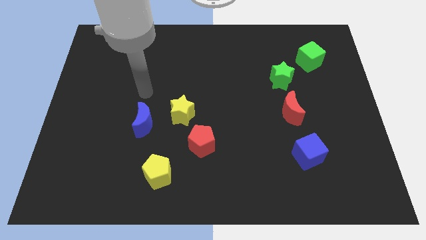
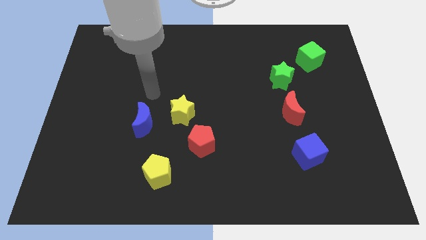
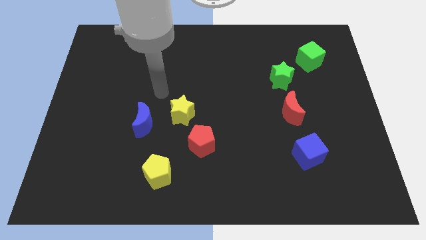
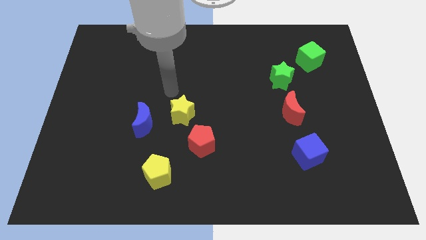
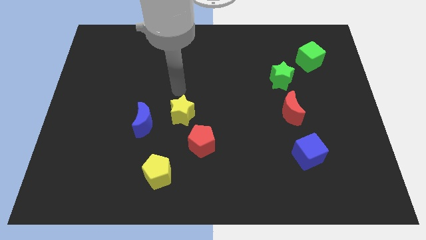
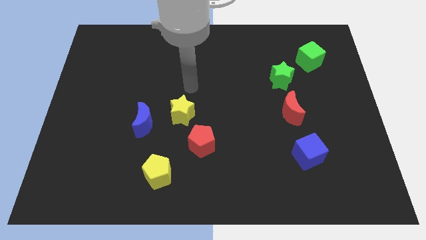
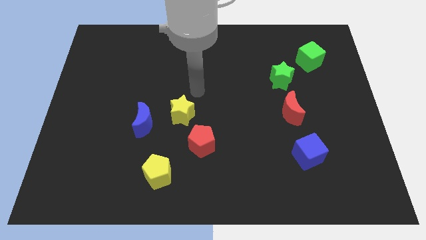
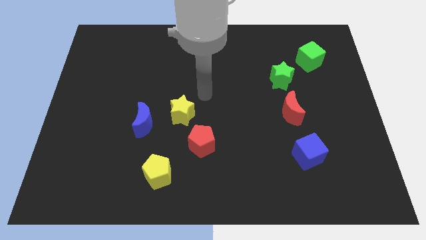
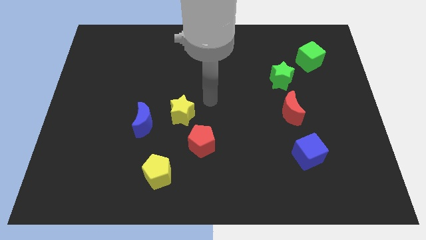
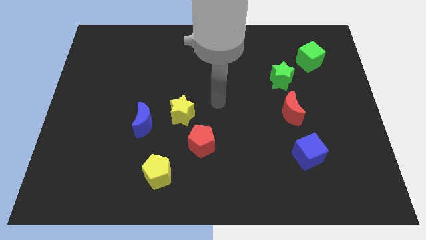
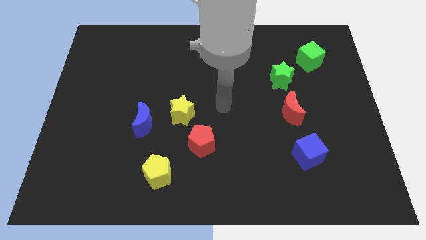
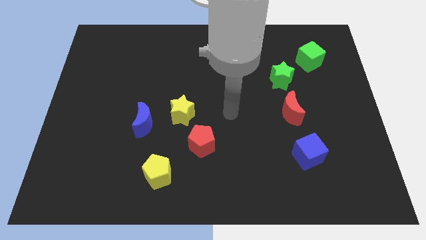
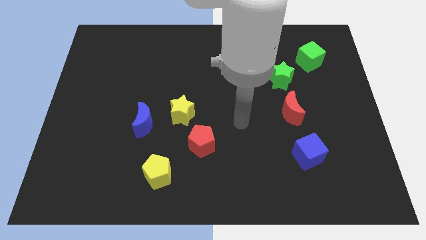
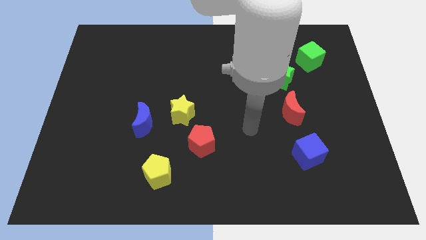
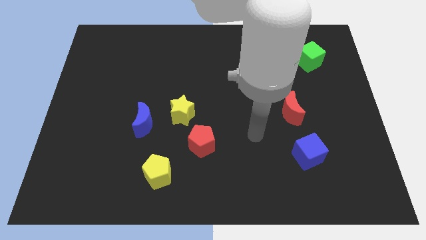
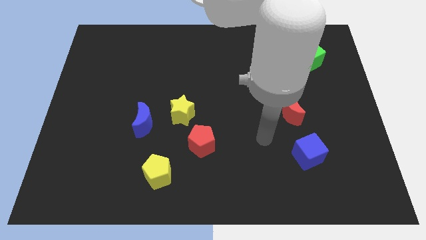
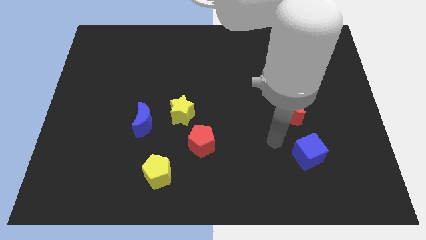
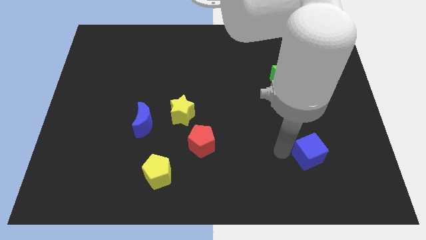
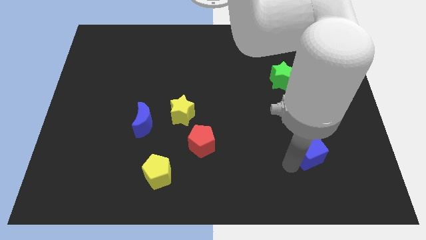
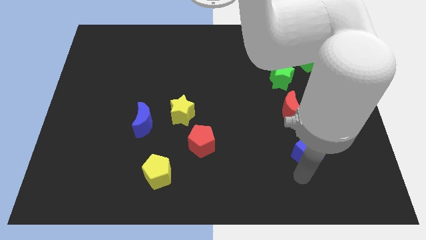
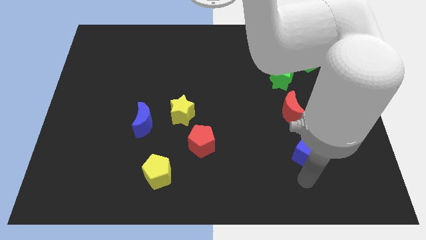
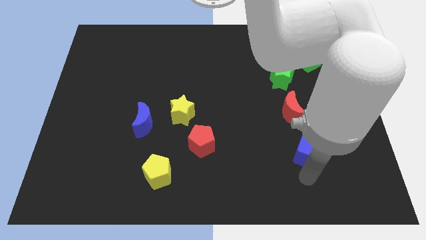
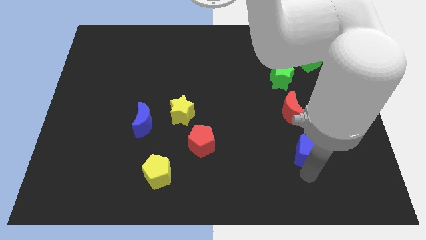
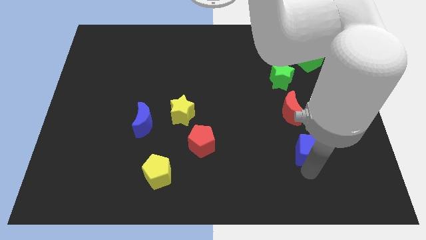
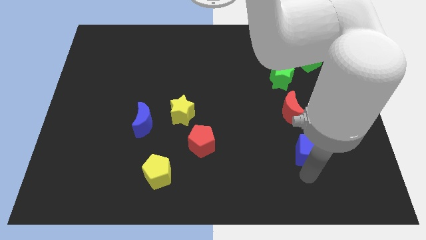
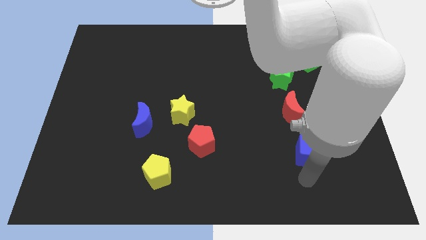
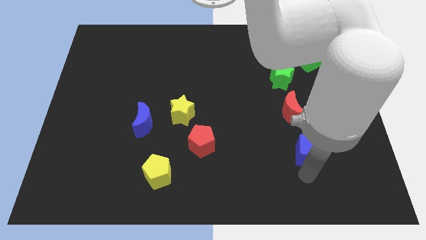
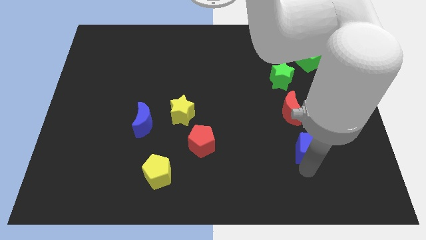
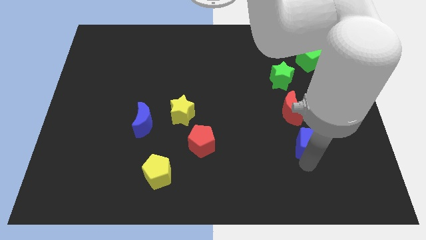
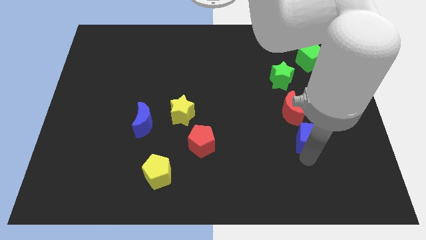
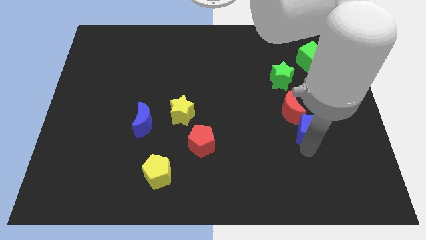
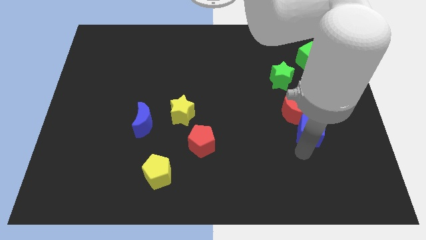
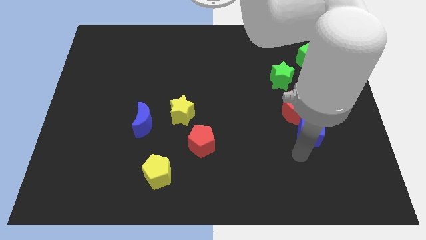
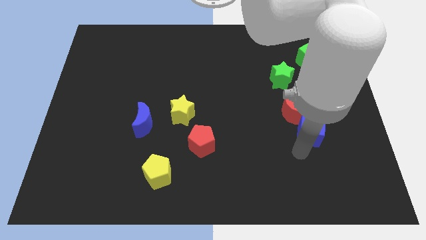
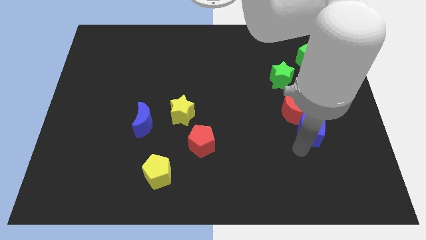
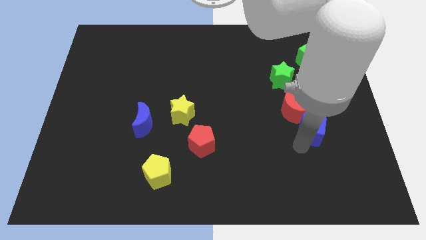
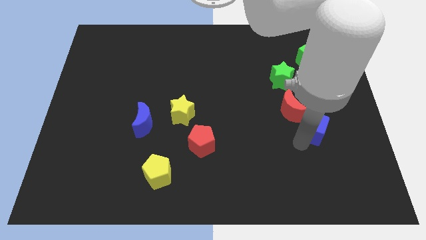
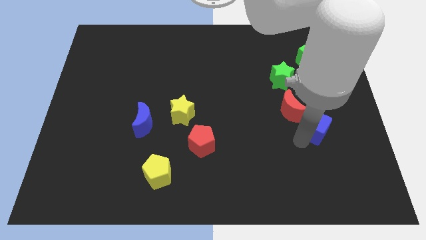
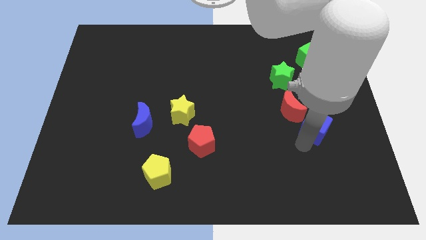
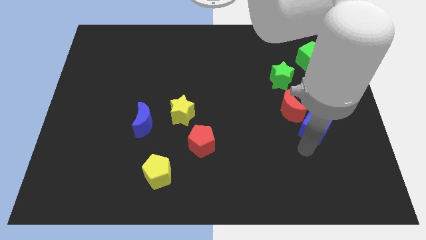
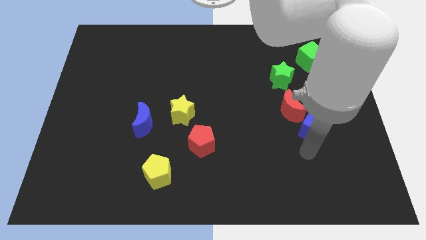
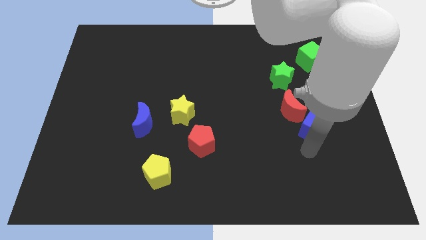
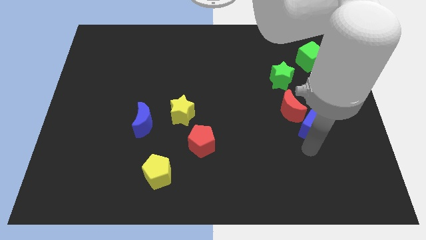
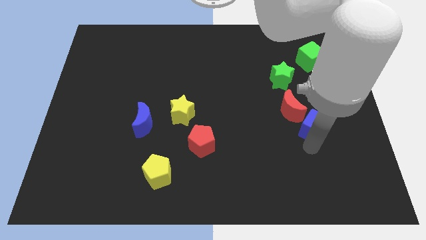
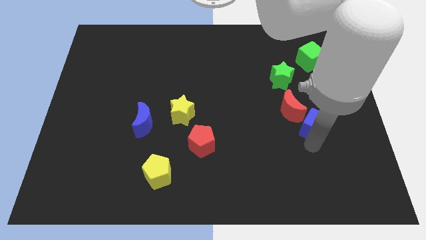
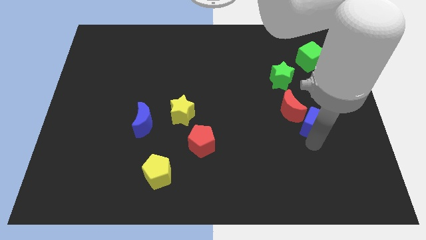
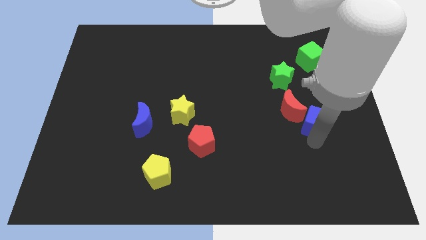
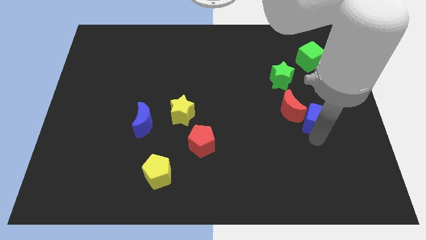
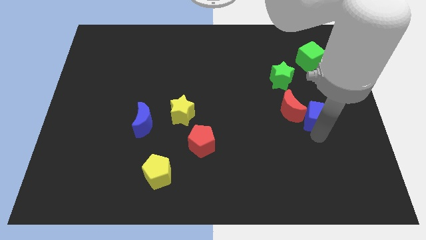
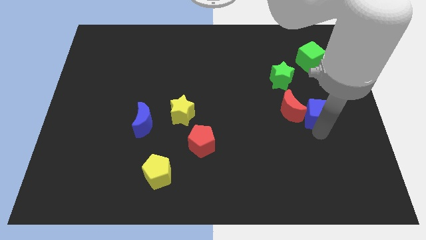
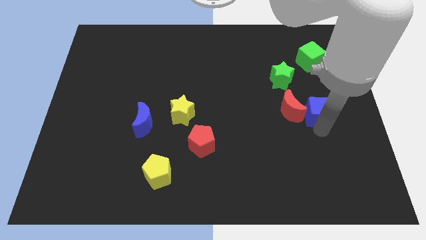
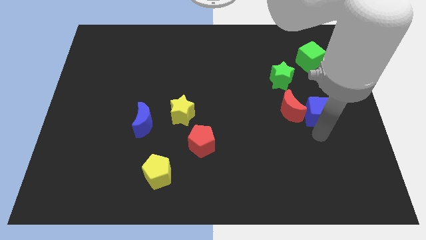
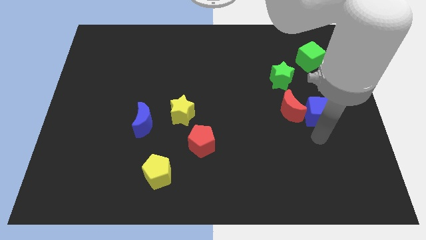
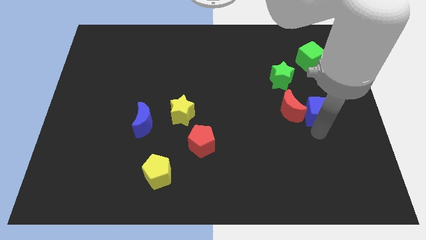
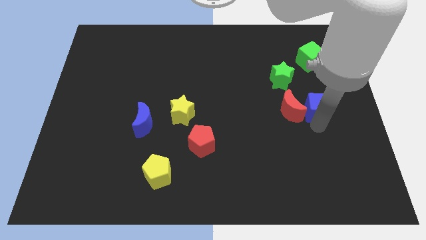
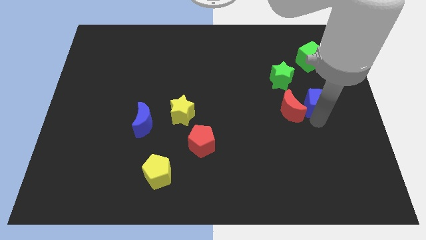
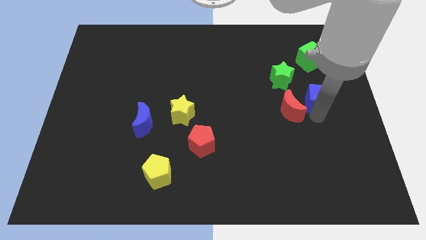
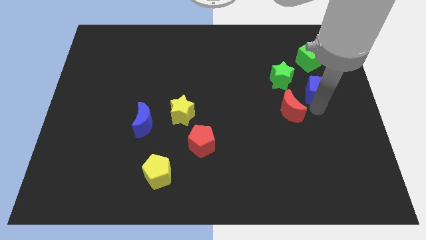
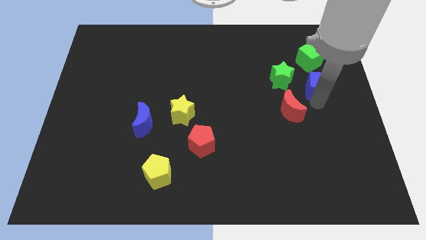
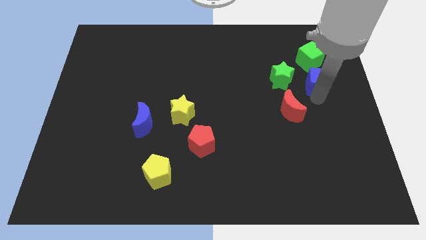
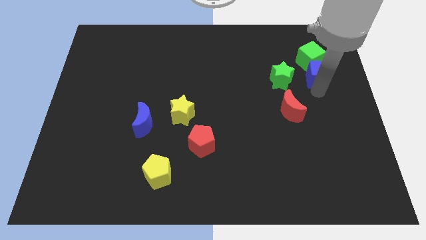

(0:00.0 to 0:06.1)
push the blue cube towards the green cube
